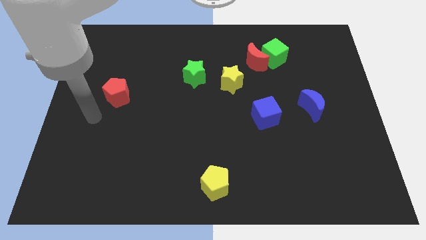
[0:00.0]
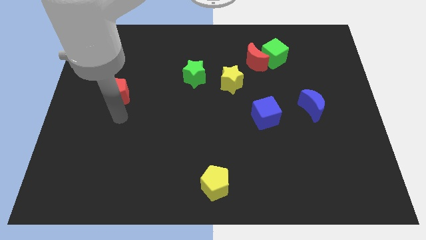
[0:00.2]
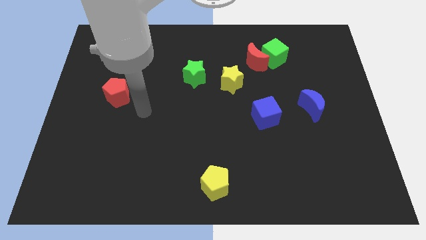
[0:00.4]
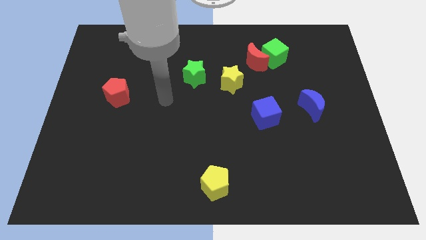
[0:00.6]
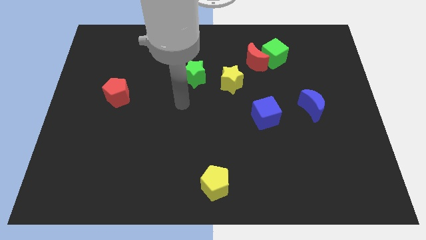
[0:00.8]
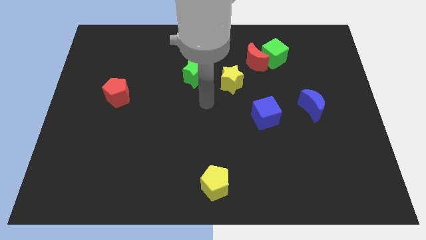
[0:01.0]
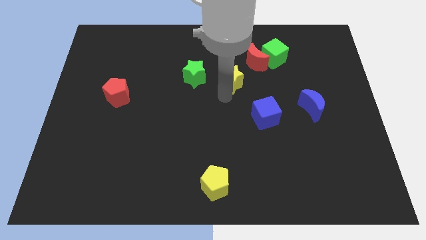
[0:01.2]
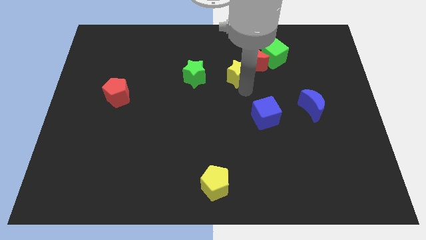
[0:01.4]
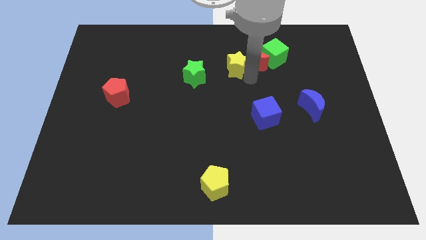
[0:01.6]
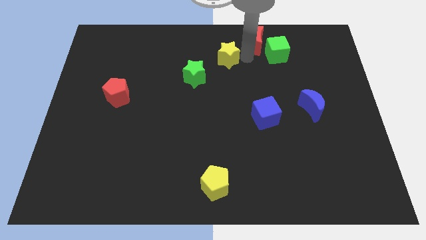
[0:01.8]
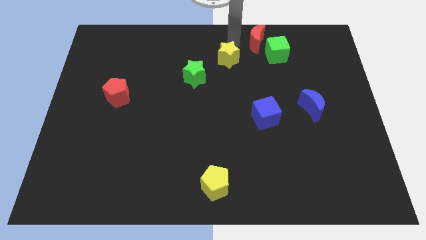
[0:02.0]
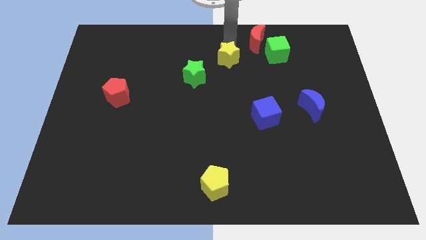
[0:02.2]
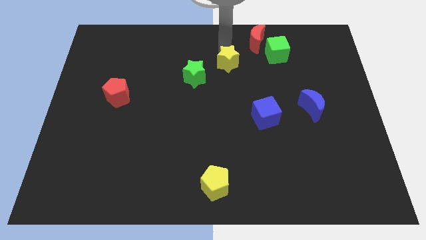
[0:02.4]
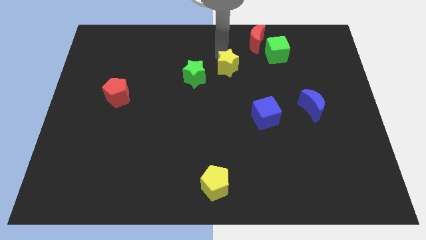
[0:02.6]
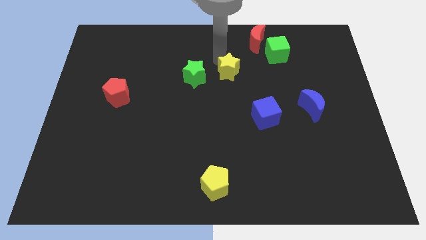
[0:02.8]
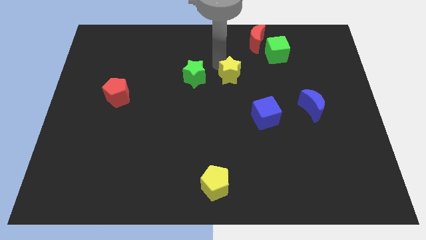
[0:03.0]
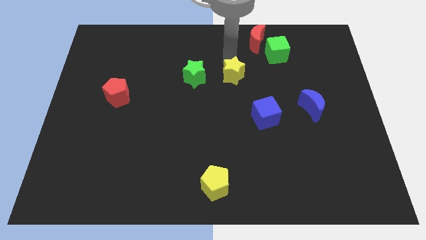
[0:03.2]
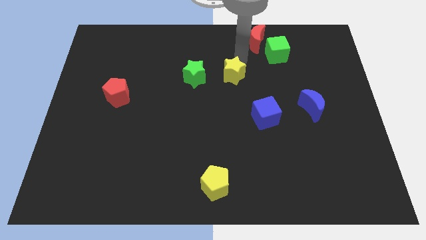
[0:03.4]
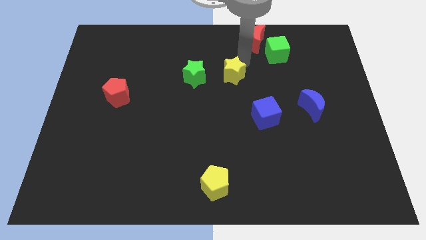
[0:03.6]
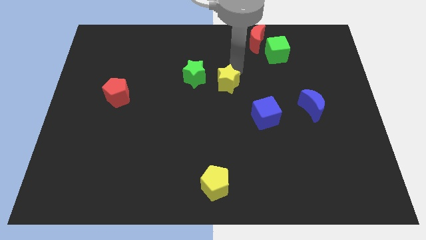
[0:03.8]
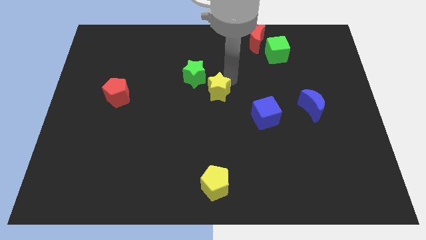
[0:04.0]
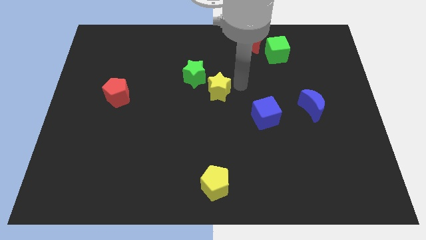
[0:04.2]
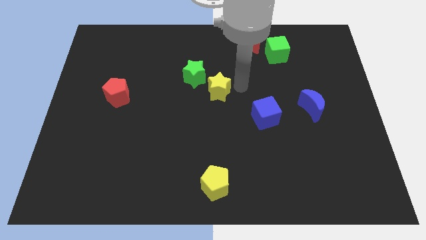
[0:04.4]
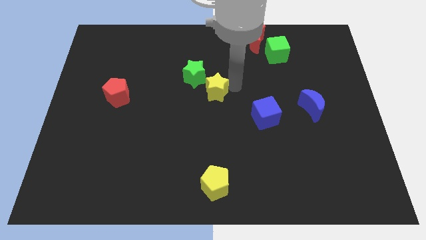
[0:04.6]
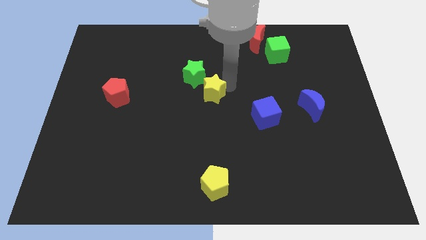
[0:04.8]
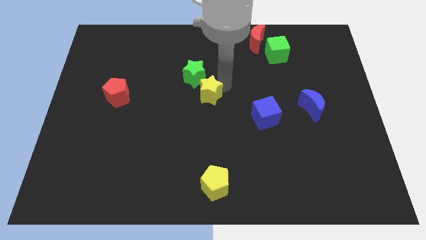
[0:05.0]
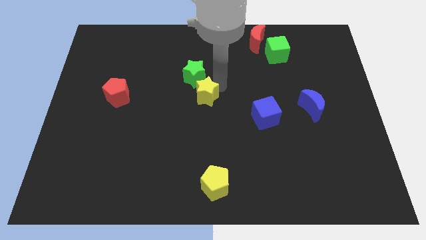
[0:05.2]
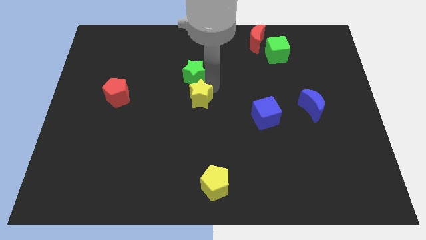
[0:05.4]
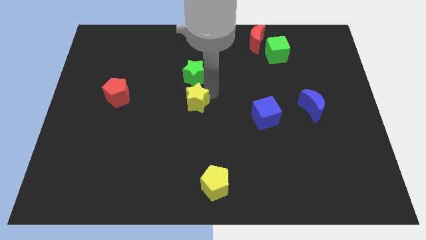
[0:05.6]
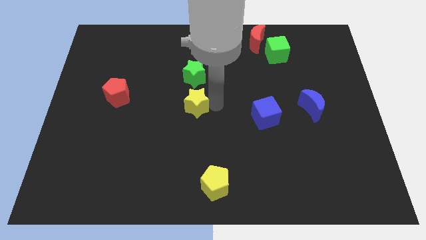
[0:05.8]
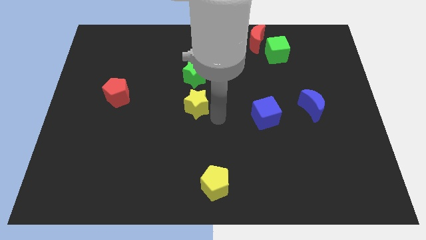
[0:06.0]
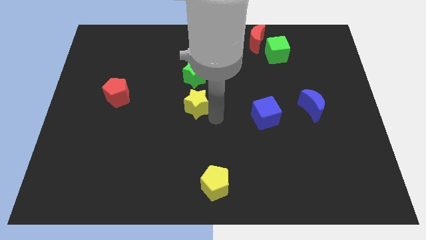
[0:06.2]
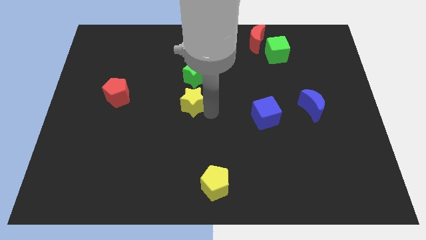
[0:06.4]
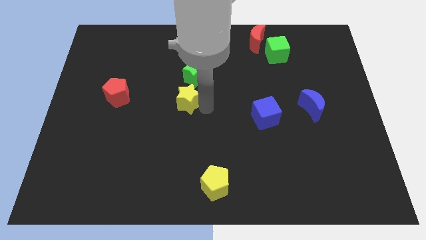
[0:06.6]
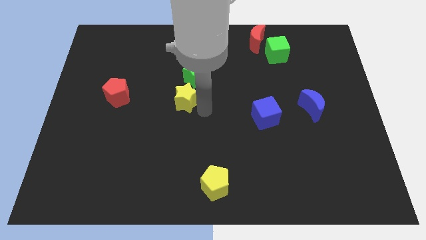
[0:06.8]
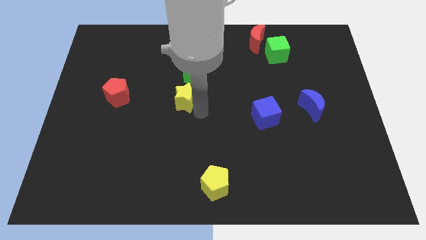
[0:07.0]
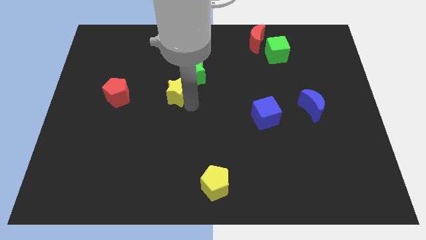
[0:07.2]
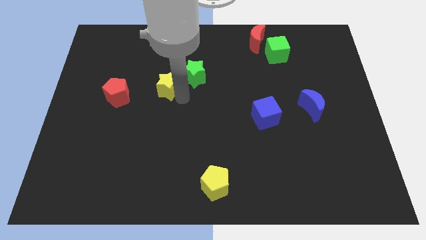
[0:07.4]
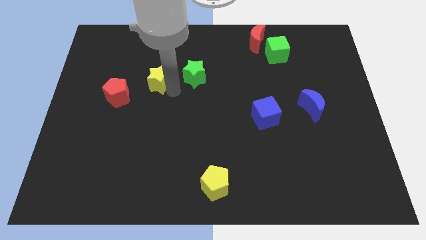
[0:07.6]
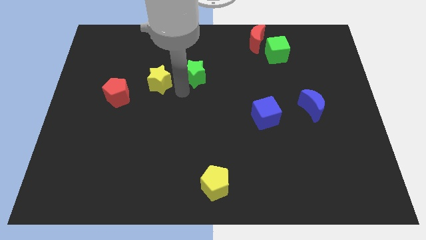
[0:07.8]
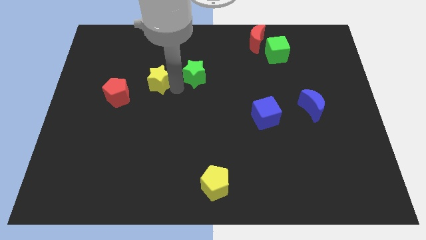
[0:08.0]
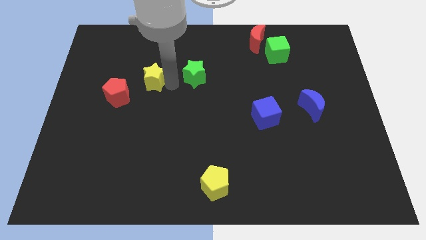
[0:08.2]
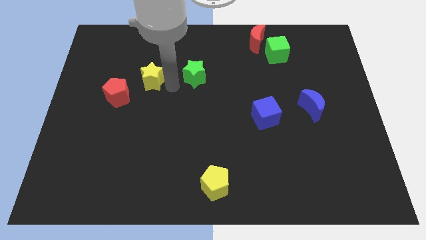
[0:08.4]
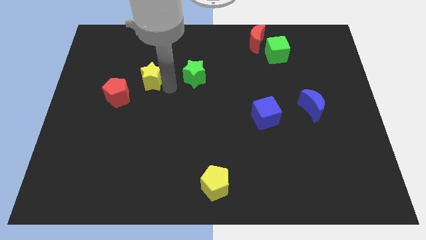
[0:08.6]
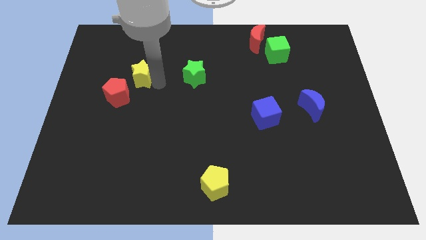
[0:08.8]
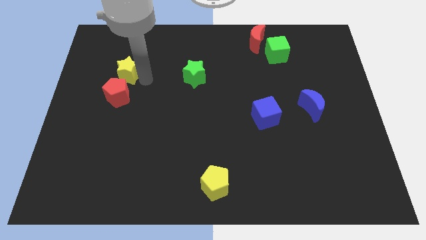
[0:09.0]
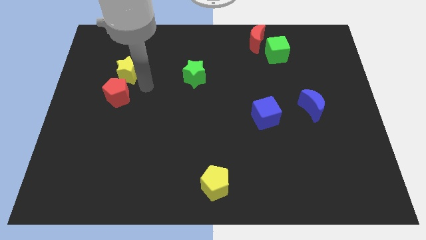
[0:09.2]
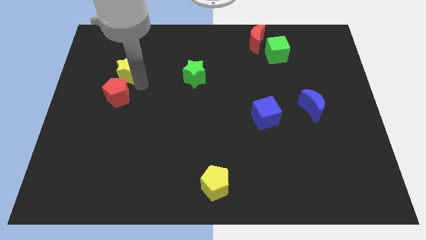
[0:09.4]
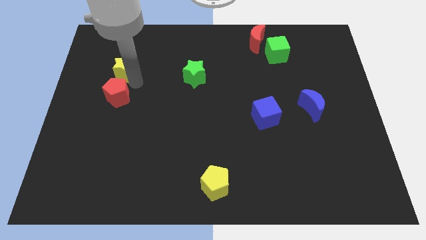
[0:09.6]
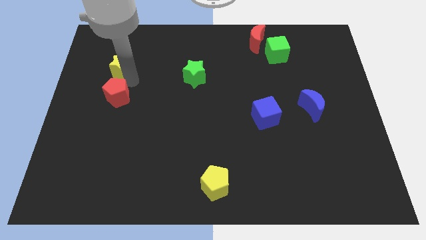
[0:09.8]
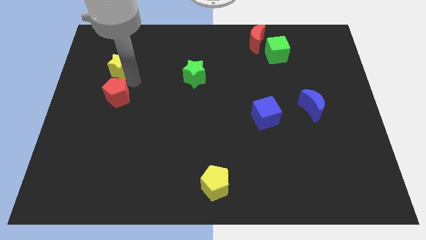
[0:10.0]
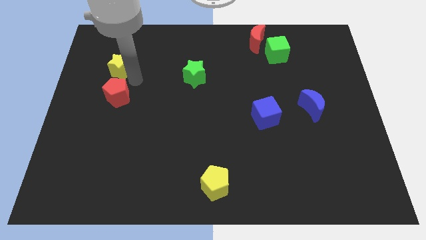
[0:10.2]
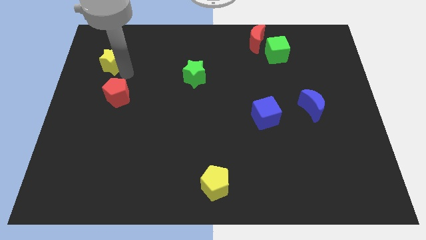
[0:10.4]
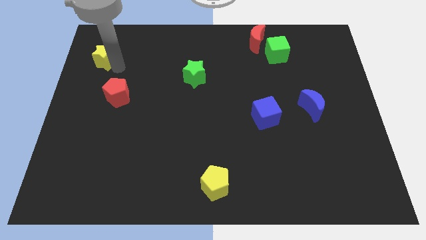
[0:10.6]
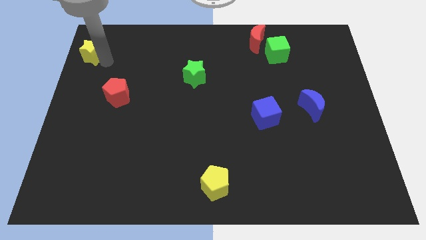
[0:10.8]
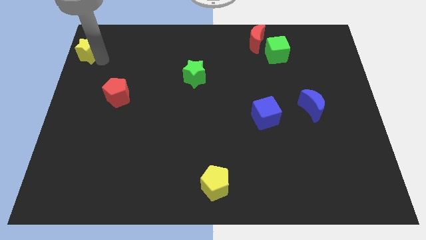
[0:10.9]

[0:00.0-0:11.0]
put the yellow star to the upper left corner

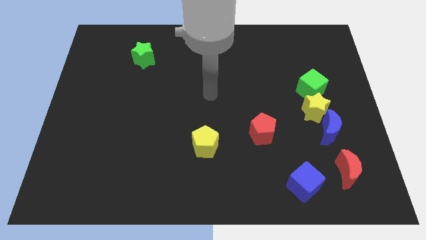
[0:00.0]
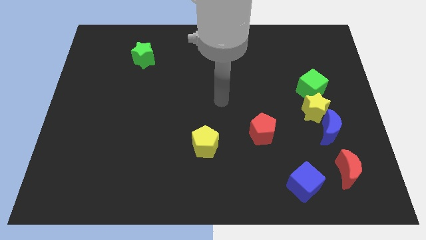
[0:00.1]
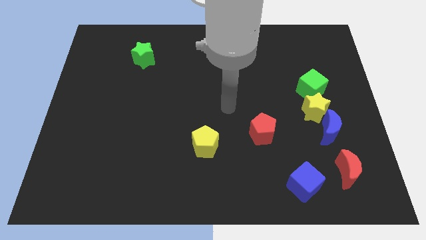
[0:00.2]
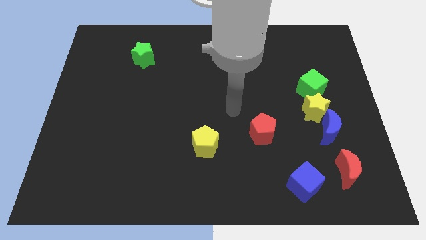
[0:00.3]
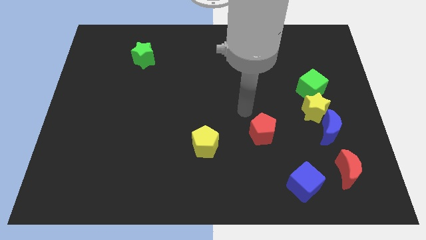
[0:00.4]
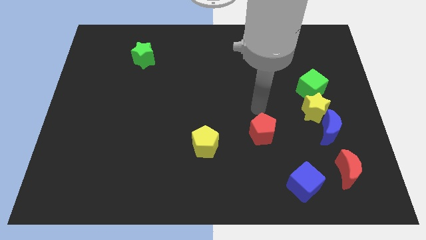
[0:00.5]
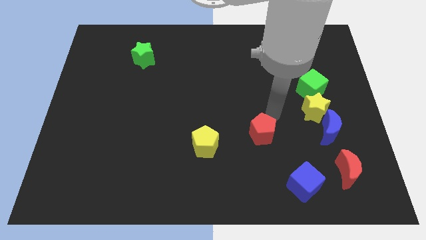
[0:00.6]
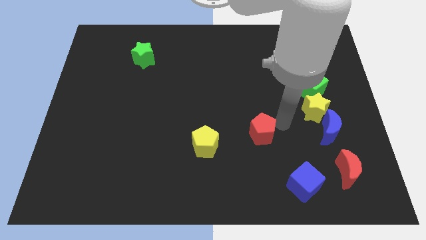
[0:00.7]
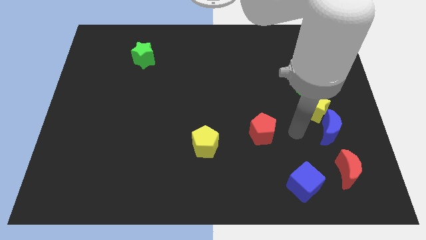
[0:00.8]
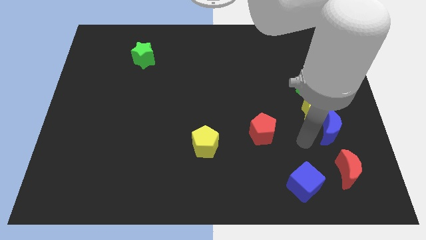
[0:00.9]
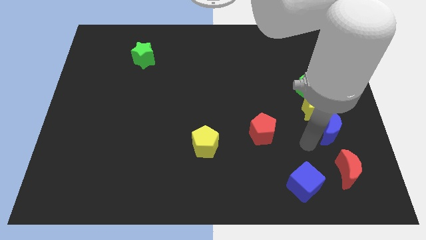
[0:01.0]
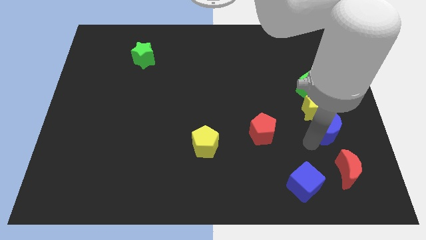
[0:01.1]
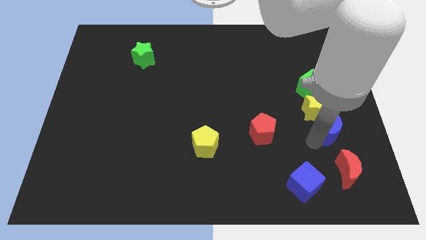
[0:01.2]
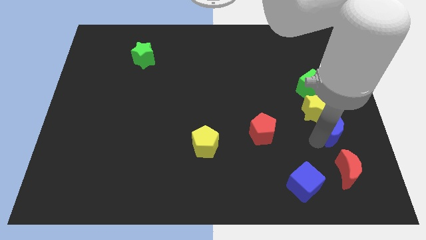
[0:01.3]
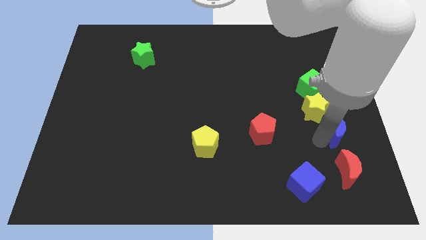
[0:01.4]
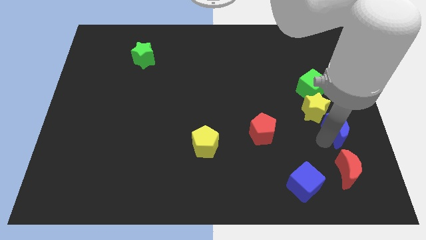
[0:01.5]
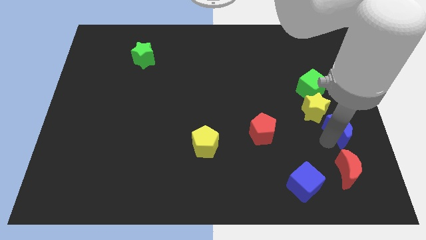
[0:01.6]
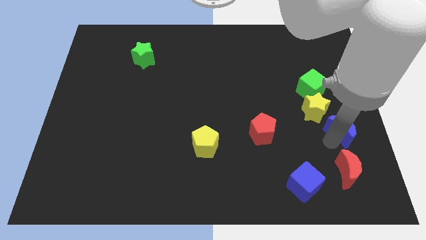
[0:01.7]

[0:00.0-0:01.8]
push the blue moon to the right side
